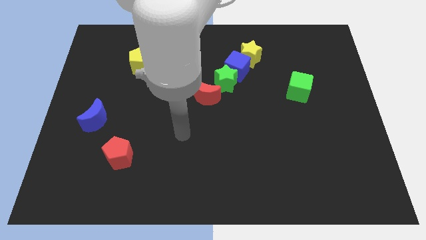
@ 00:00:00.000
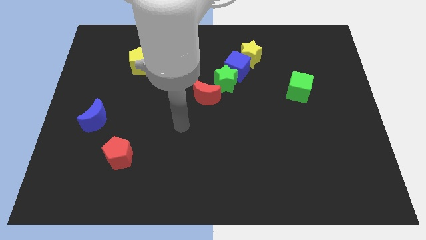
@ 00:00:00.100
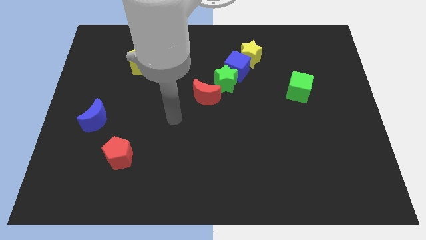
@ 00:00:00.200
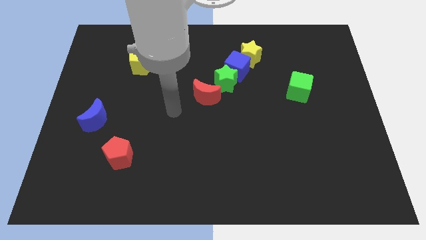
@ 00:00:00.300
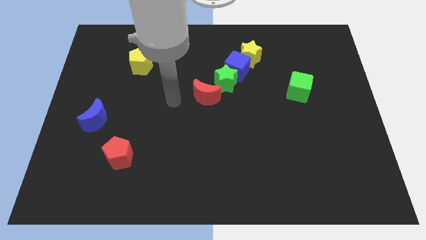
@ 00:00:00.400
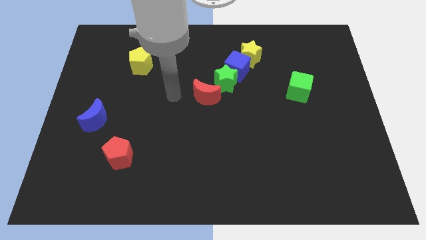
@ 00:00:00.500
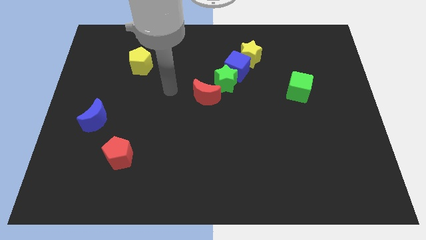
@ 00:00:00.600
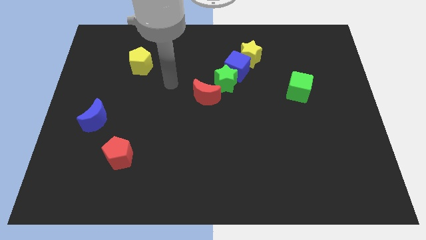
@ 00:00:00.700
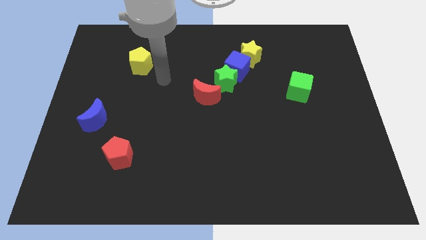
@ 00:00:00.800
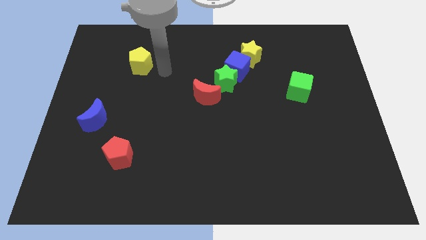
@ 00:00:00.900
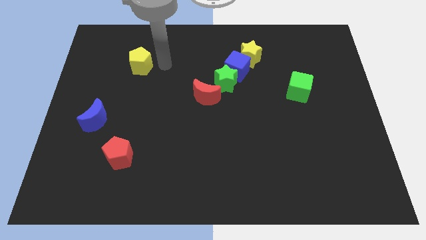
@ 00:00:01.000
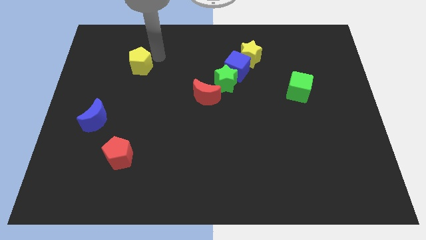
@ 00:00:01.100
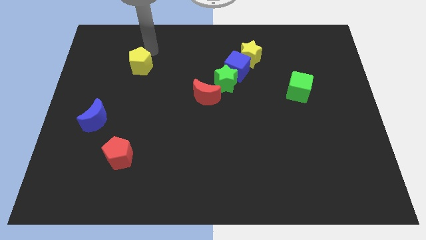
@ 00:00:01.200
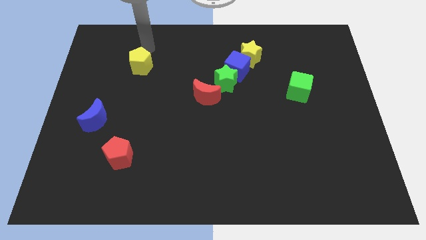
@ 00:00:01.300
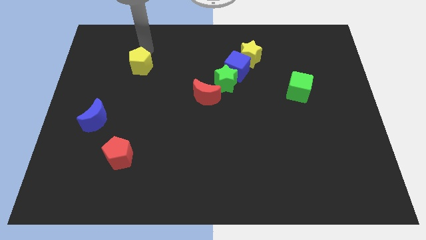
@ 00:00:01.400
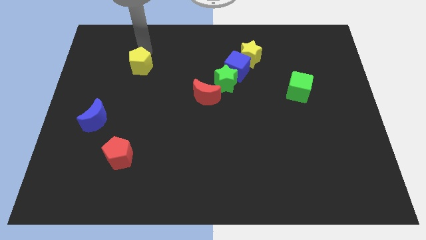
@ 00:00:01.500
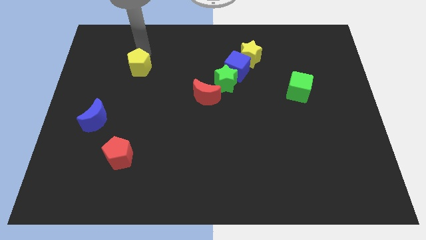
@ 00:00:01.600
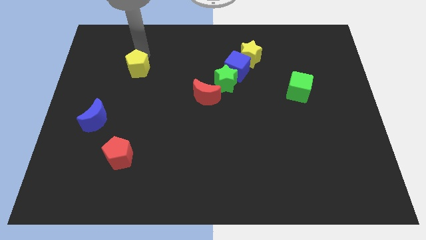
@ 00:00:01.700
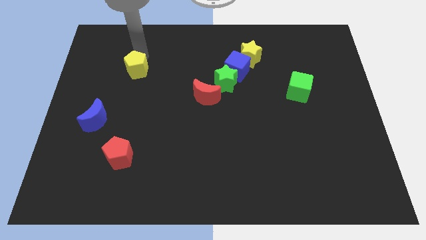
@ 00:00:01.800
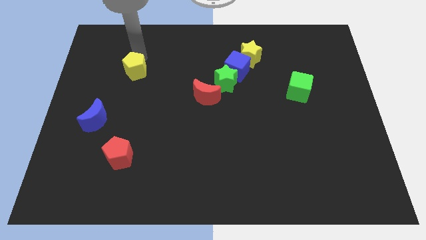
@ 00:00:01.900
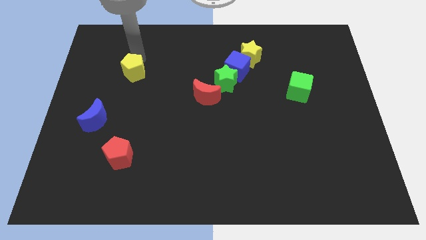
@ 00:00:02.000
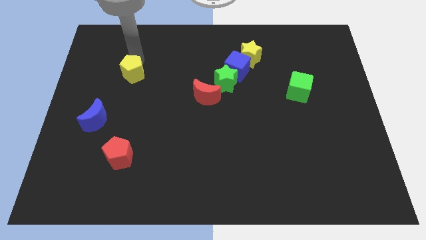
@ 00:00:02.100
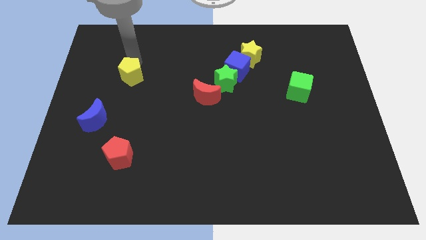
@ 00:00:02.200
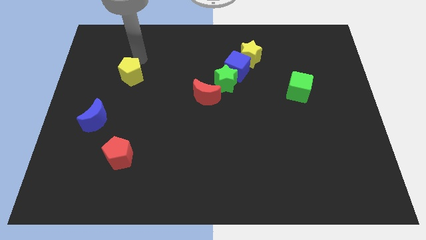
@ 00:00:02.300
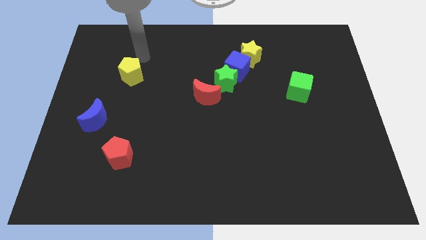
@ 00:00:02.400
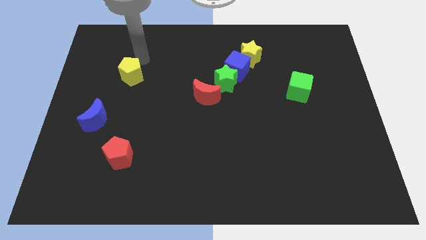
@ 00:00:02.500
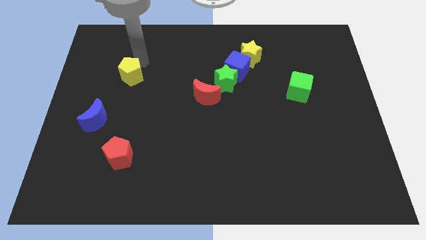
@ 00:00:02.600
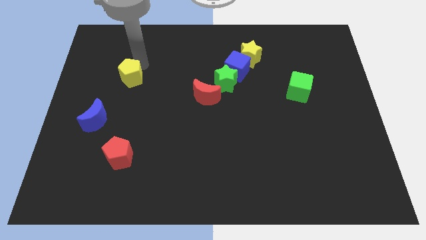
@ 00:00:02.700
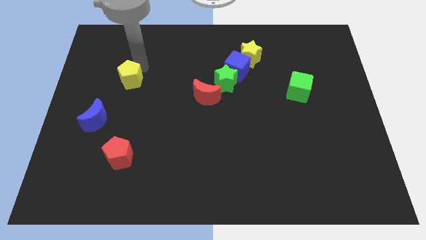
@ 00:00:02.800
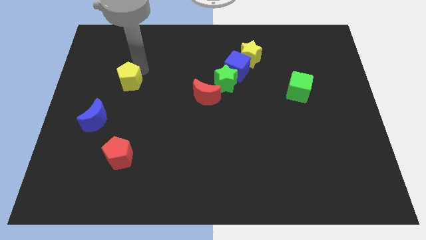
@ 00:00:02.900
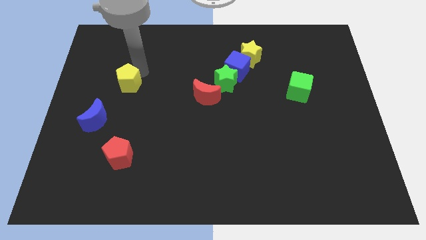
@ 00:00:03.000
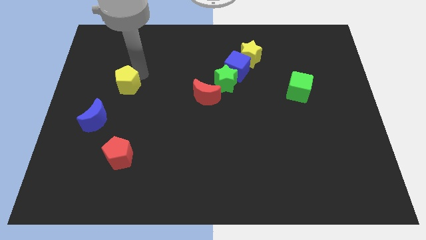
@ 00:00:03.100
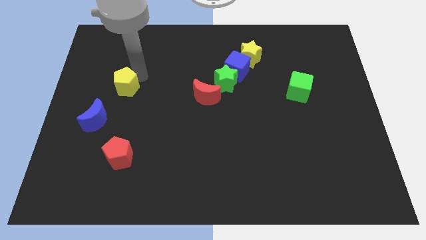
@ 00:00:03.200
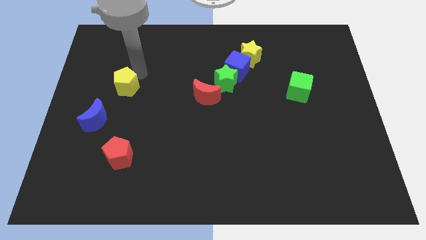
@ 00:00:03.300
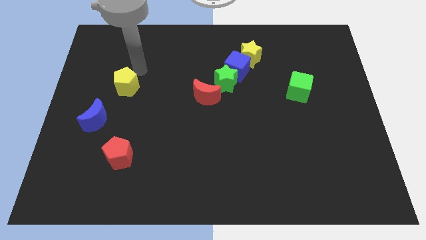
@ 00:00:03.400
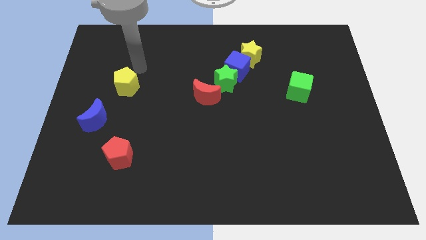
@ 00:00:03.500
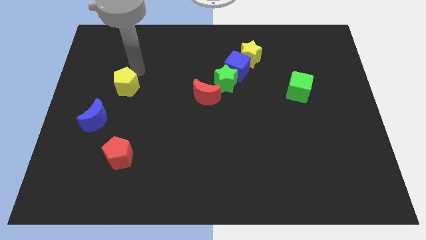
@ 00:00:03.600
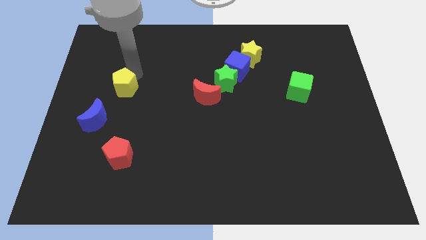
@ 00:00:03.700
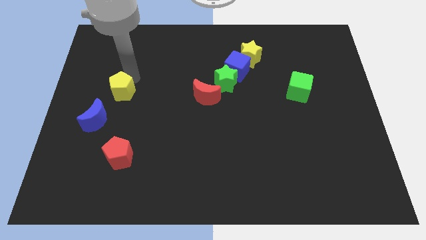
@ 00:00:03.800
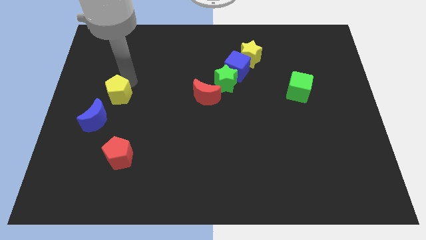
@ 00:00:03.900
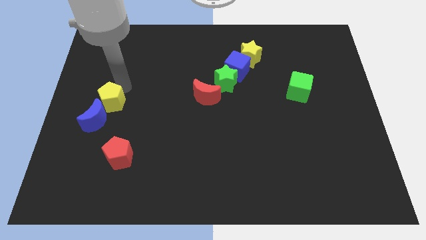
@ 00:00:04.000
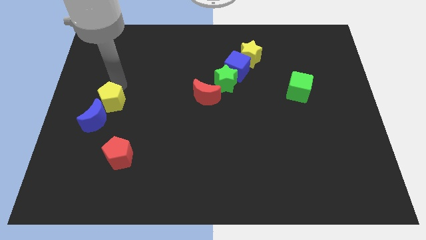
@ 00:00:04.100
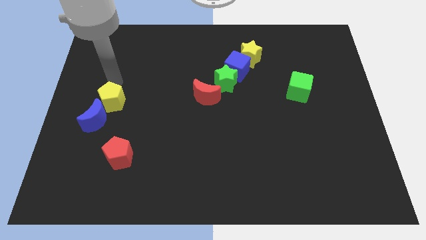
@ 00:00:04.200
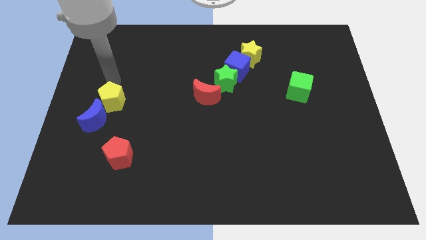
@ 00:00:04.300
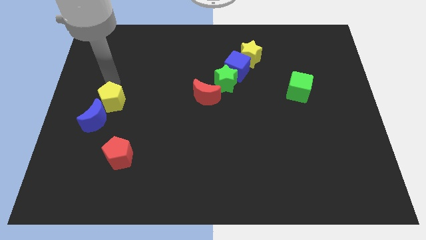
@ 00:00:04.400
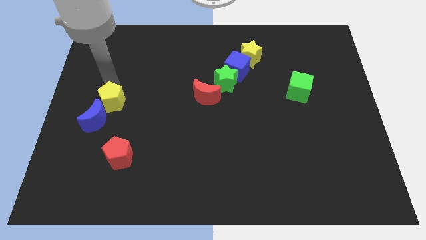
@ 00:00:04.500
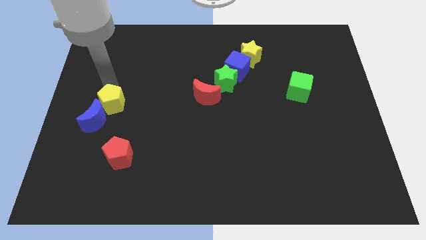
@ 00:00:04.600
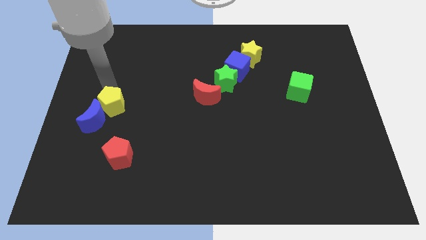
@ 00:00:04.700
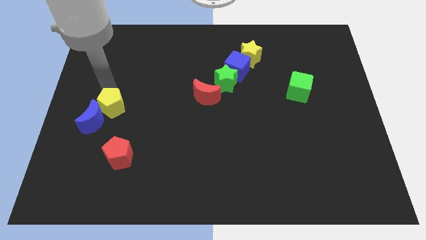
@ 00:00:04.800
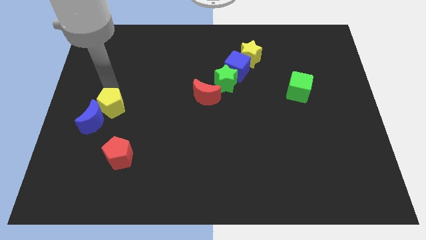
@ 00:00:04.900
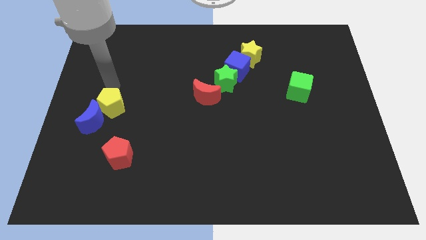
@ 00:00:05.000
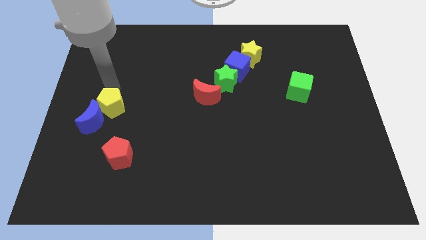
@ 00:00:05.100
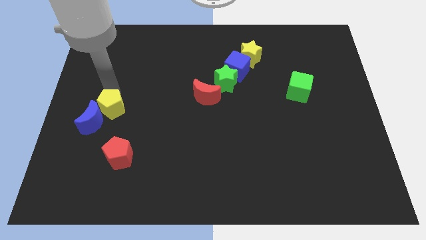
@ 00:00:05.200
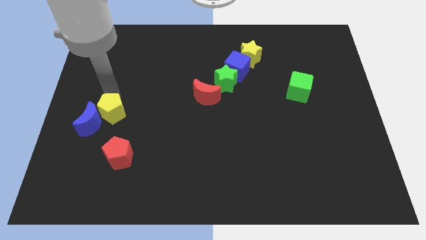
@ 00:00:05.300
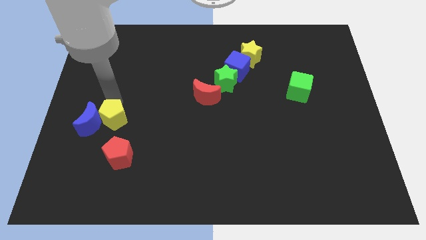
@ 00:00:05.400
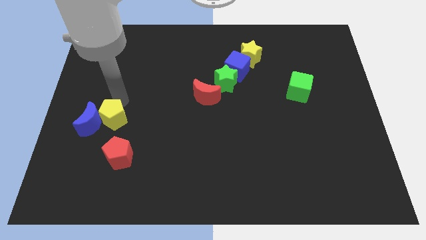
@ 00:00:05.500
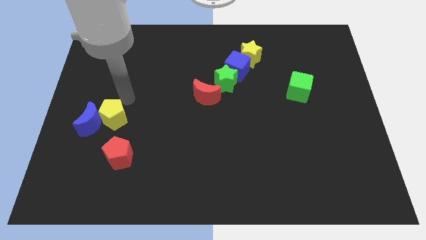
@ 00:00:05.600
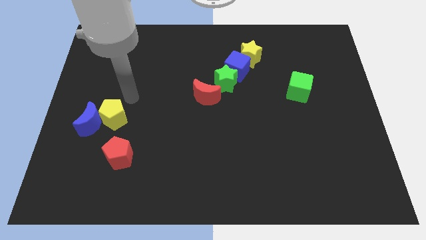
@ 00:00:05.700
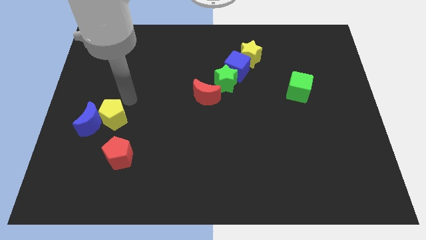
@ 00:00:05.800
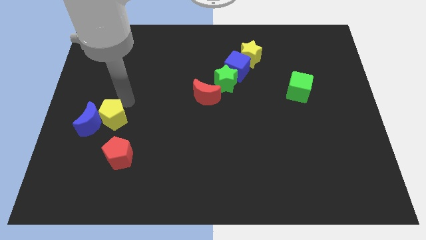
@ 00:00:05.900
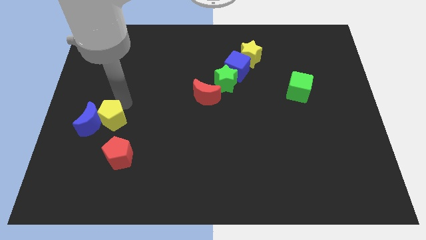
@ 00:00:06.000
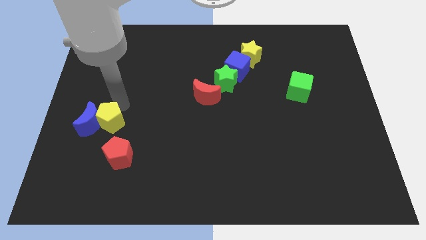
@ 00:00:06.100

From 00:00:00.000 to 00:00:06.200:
push the yellow pentagon to the top left side of the red pentagon

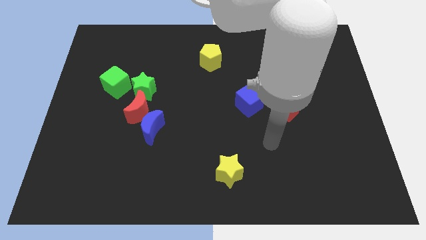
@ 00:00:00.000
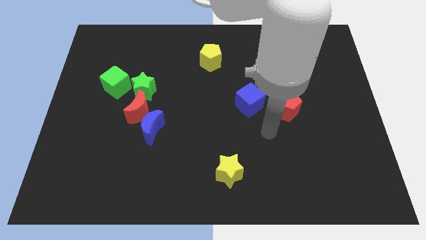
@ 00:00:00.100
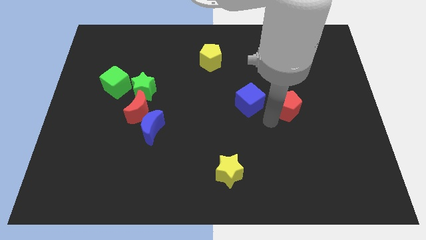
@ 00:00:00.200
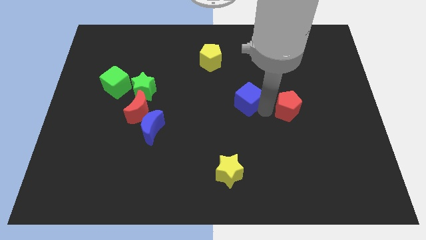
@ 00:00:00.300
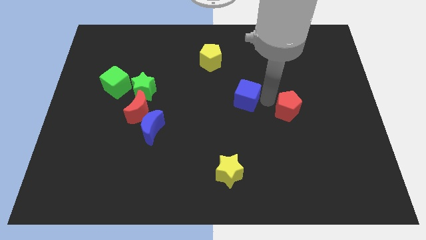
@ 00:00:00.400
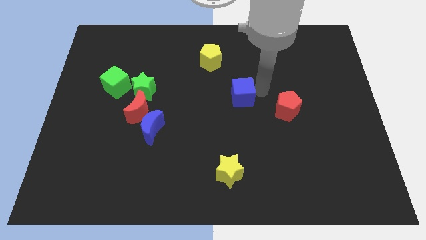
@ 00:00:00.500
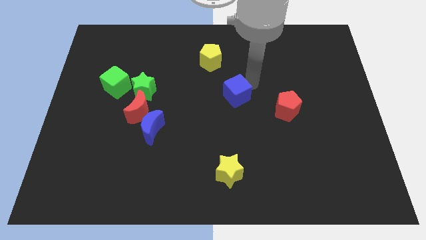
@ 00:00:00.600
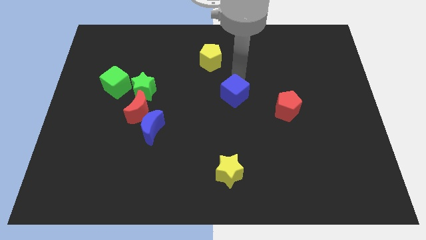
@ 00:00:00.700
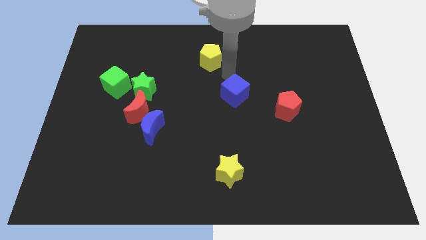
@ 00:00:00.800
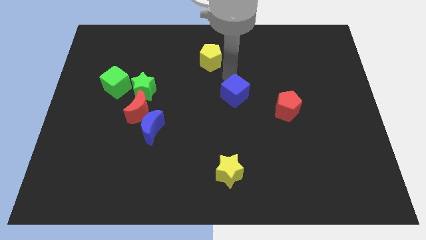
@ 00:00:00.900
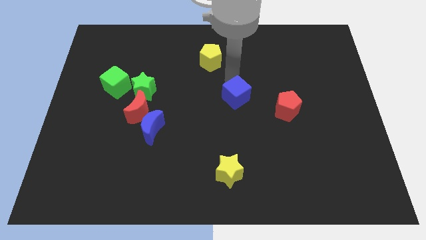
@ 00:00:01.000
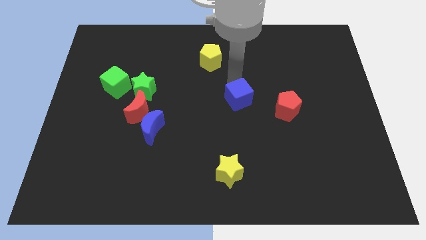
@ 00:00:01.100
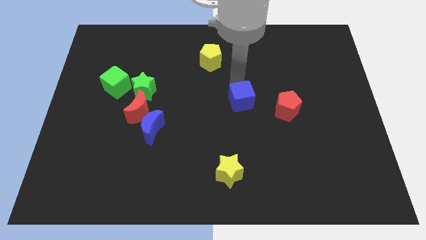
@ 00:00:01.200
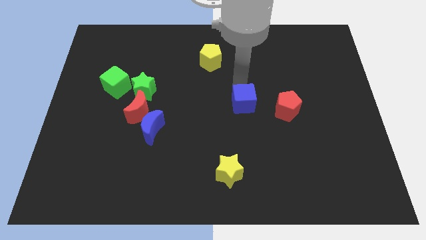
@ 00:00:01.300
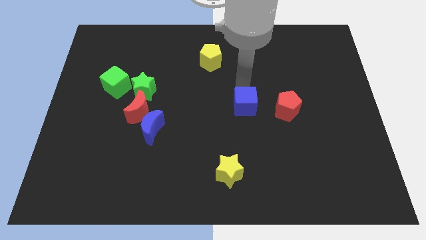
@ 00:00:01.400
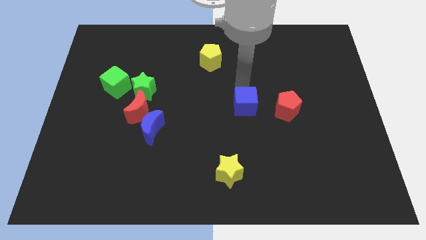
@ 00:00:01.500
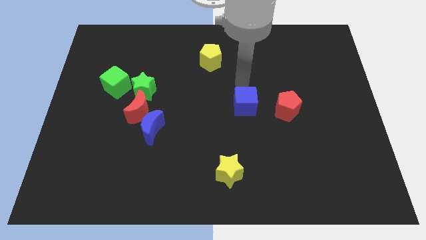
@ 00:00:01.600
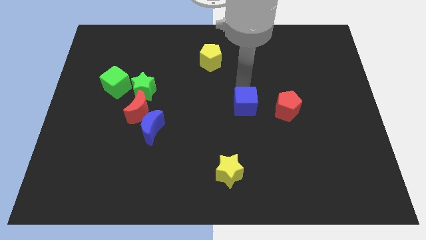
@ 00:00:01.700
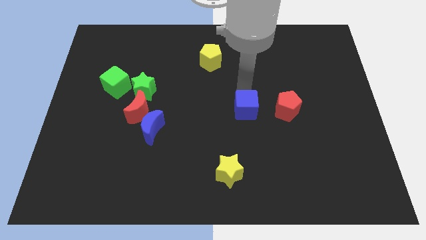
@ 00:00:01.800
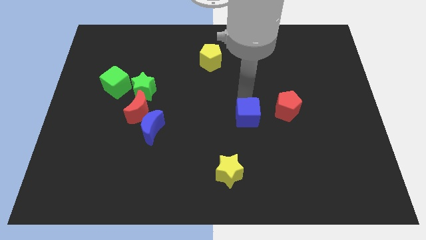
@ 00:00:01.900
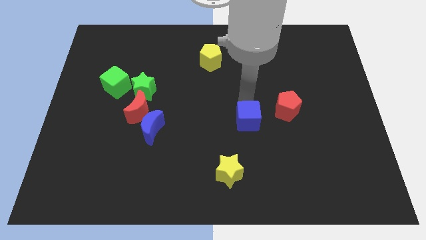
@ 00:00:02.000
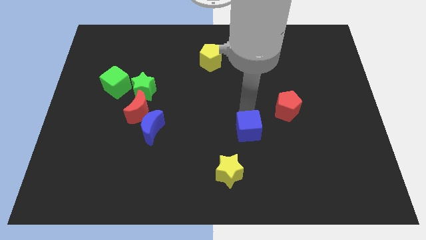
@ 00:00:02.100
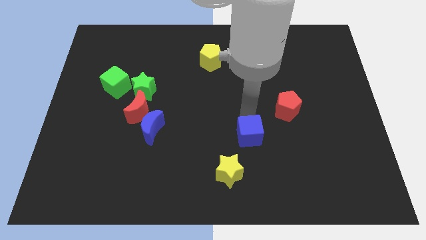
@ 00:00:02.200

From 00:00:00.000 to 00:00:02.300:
put the blue cube to the top right side of the yellow star
